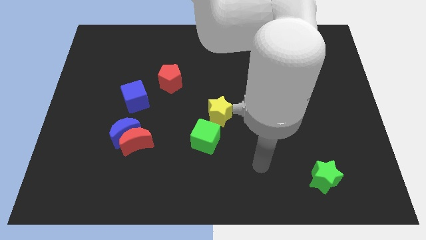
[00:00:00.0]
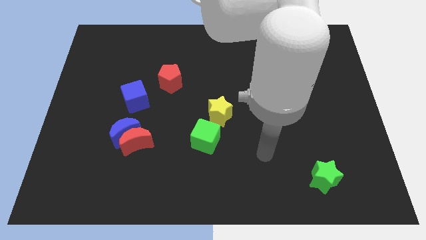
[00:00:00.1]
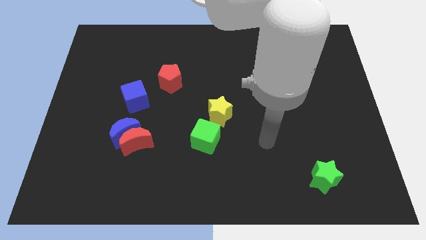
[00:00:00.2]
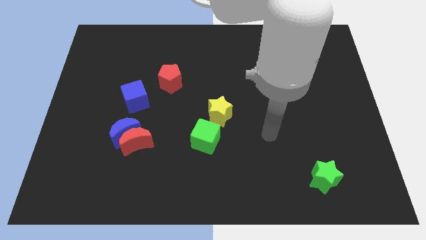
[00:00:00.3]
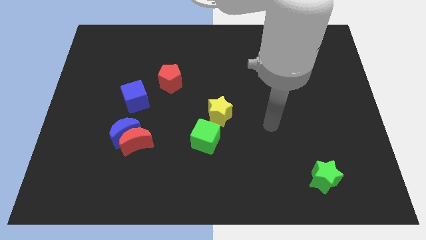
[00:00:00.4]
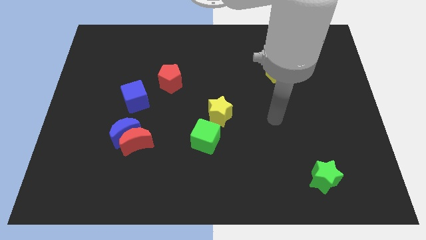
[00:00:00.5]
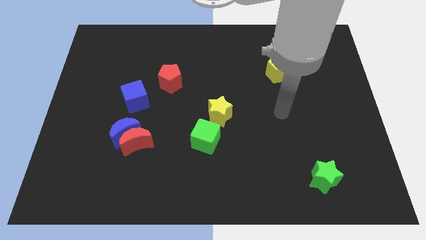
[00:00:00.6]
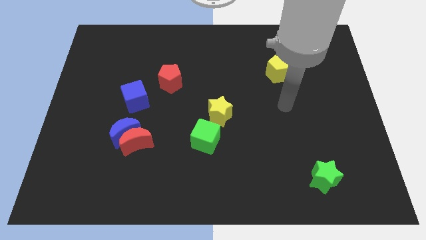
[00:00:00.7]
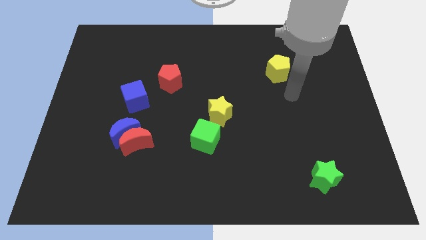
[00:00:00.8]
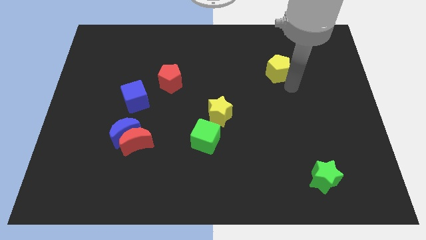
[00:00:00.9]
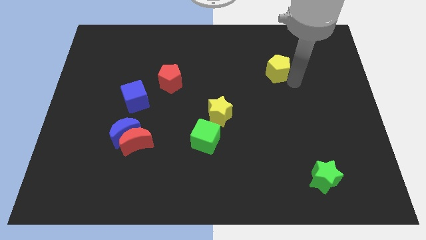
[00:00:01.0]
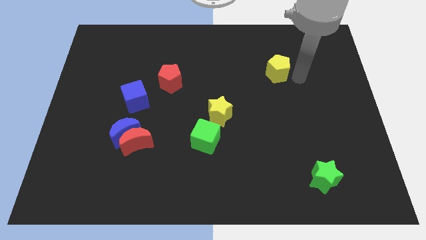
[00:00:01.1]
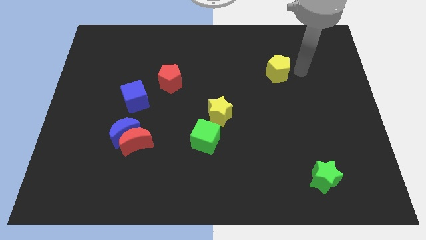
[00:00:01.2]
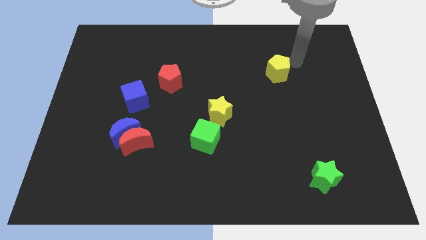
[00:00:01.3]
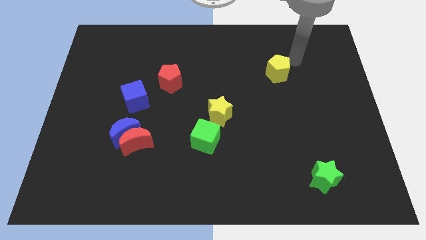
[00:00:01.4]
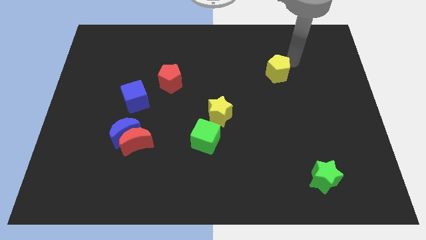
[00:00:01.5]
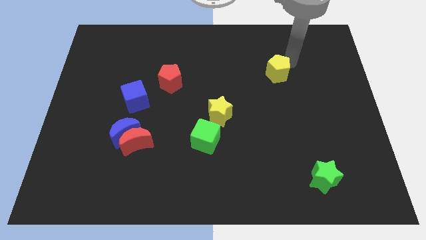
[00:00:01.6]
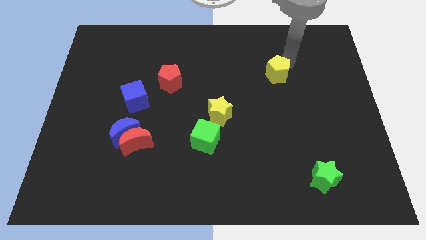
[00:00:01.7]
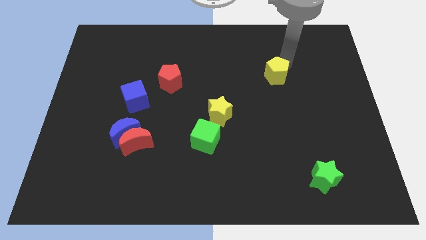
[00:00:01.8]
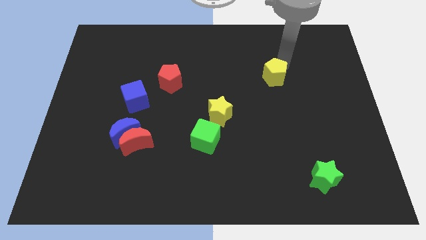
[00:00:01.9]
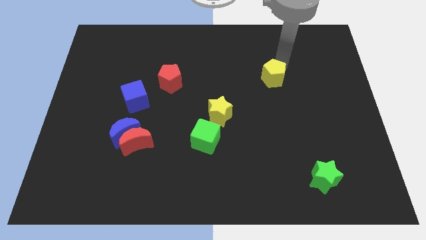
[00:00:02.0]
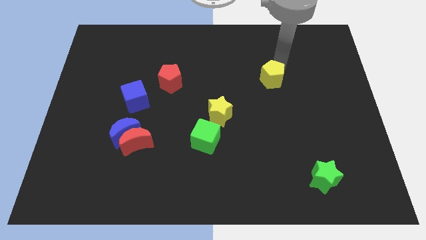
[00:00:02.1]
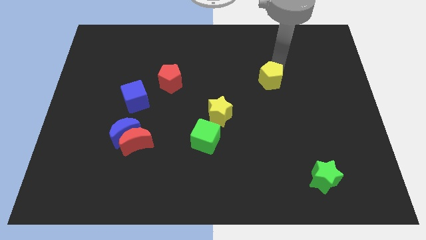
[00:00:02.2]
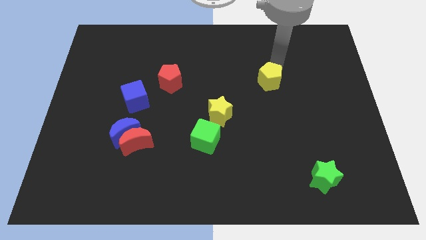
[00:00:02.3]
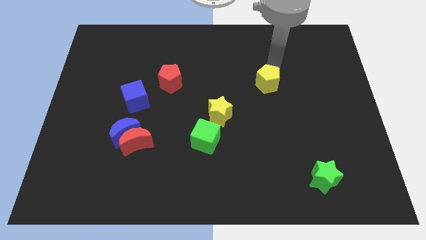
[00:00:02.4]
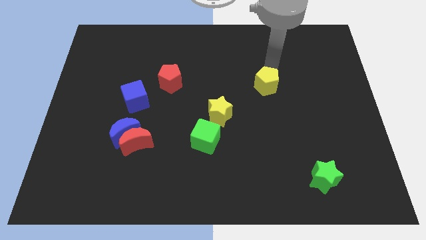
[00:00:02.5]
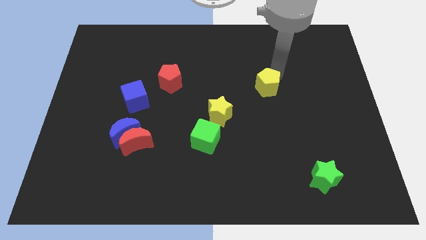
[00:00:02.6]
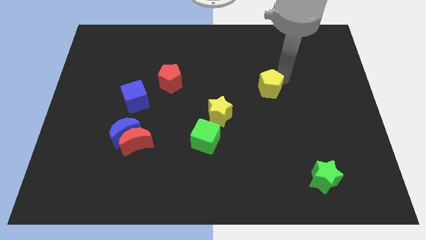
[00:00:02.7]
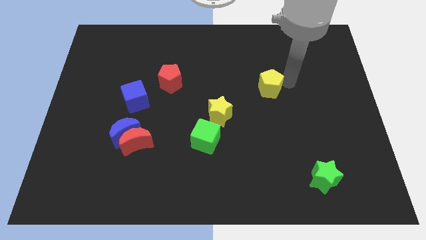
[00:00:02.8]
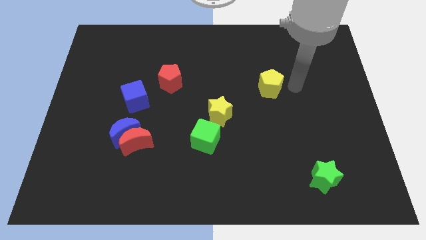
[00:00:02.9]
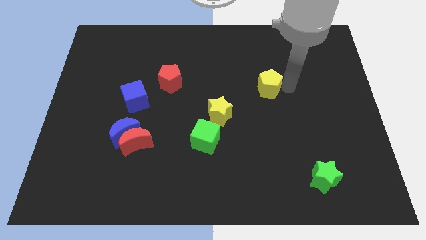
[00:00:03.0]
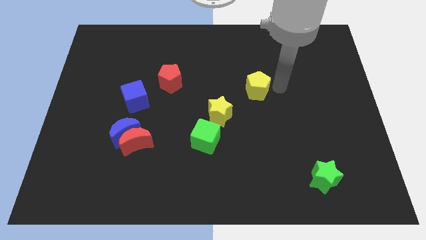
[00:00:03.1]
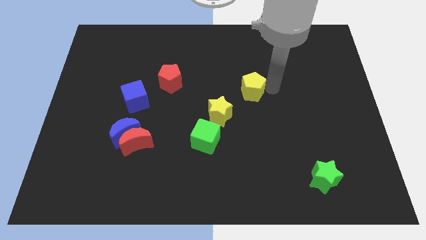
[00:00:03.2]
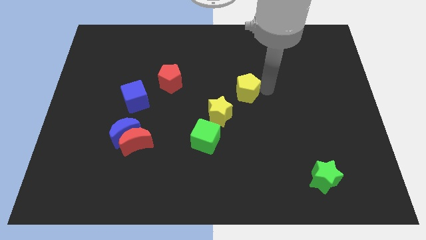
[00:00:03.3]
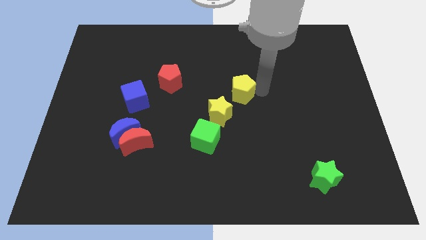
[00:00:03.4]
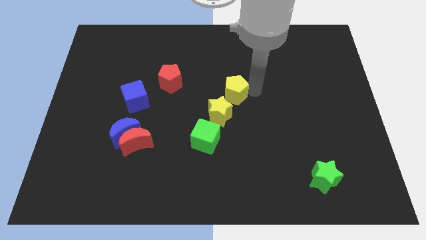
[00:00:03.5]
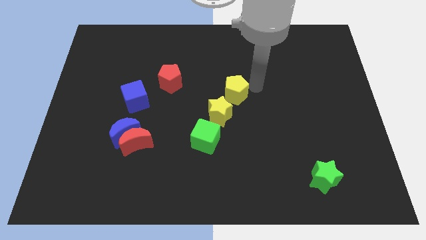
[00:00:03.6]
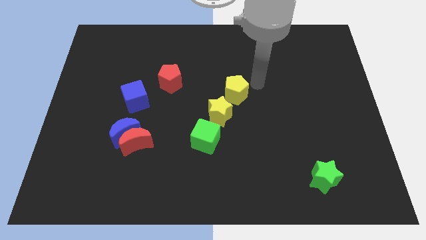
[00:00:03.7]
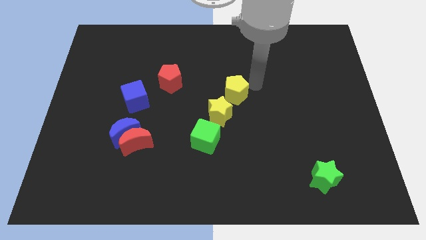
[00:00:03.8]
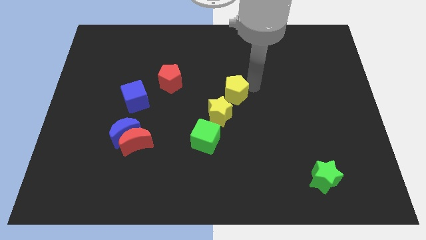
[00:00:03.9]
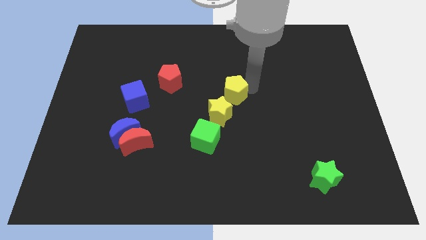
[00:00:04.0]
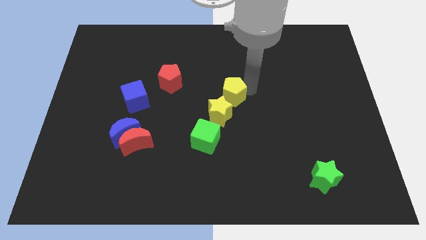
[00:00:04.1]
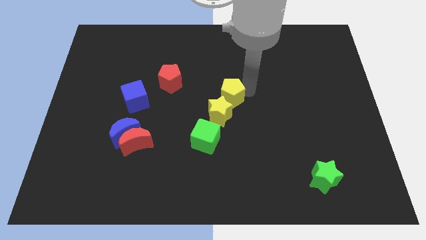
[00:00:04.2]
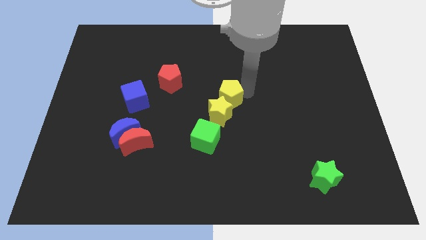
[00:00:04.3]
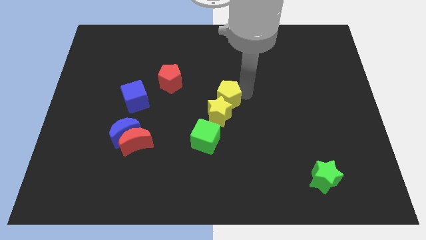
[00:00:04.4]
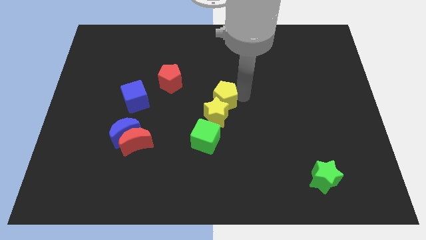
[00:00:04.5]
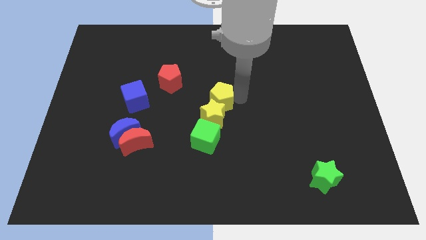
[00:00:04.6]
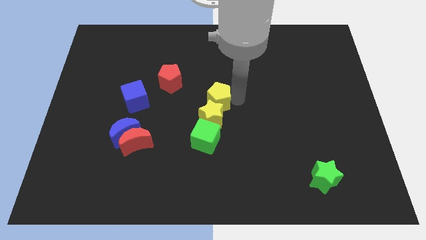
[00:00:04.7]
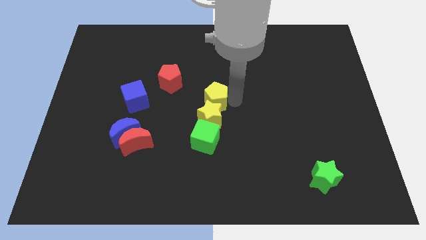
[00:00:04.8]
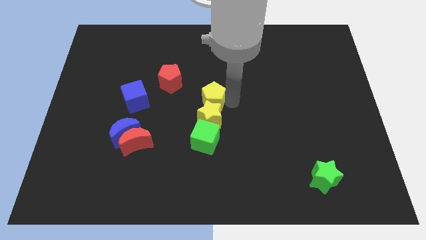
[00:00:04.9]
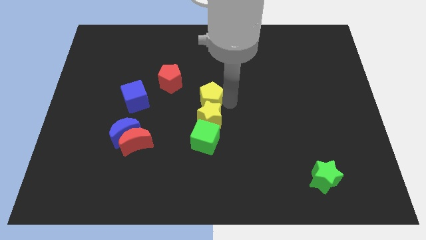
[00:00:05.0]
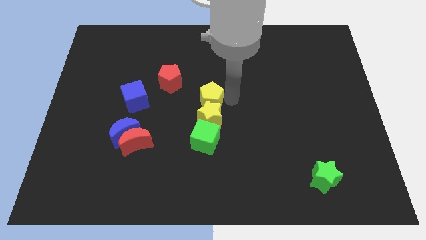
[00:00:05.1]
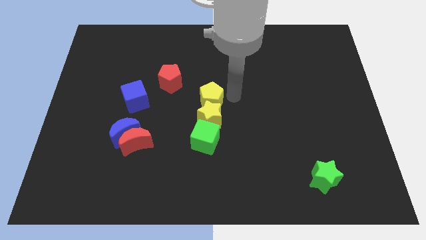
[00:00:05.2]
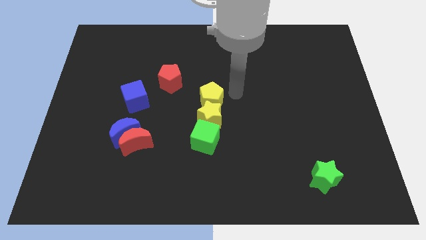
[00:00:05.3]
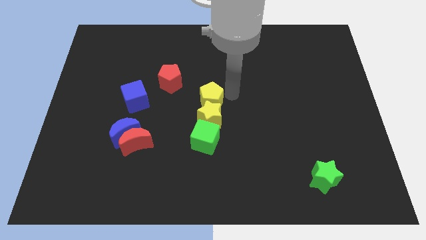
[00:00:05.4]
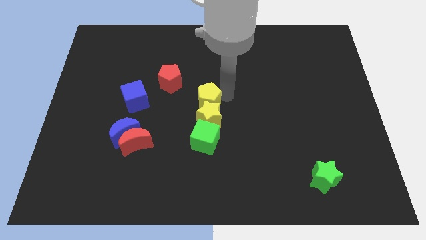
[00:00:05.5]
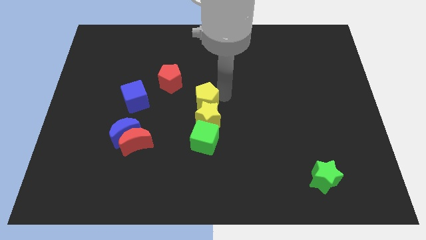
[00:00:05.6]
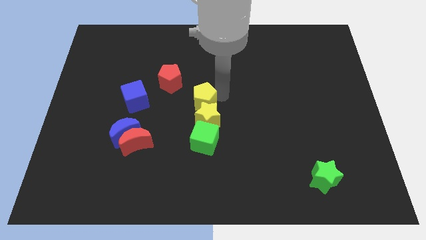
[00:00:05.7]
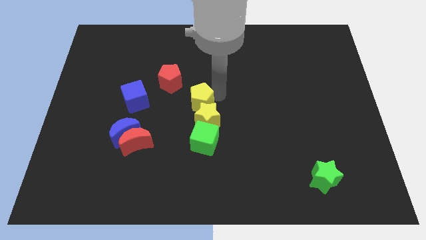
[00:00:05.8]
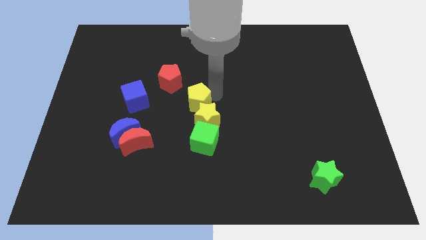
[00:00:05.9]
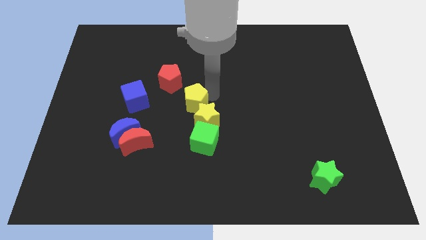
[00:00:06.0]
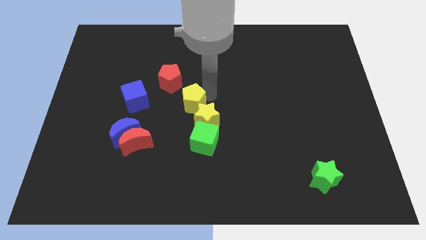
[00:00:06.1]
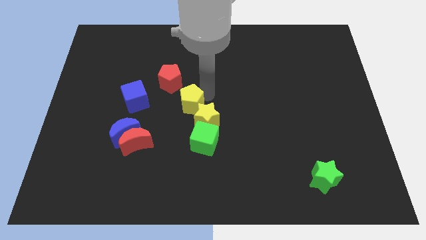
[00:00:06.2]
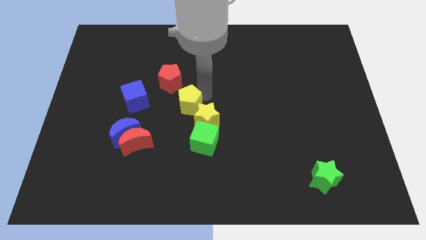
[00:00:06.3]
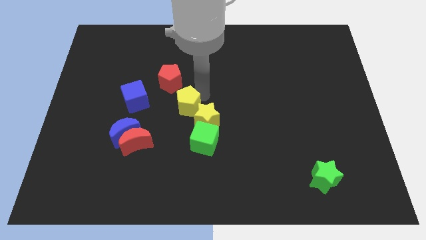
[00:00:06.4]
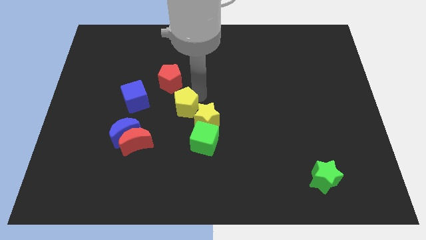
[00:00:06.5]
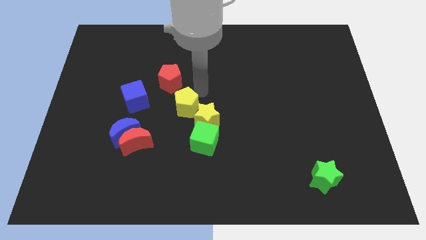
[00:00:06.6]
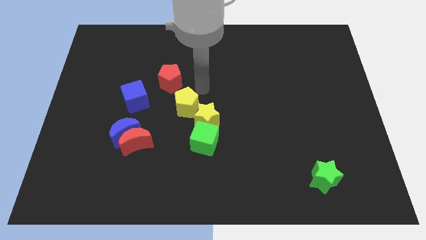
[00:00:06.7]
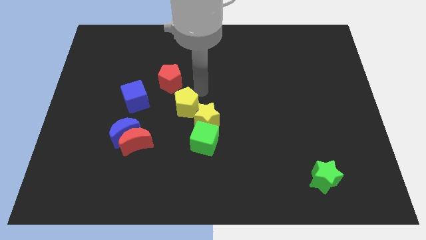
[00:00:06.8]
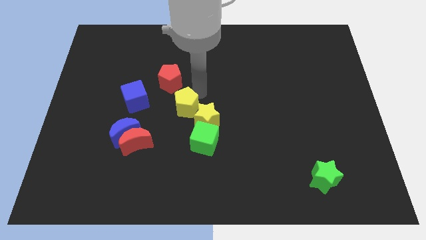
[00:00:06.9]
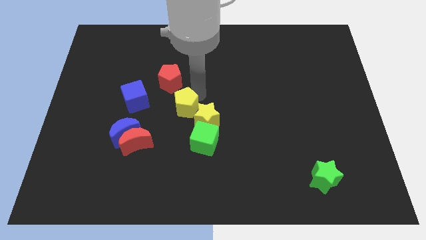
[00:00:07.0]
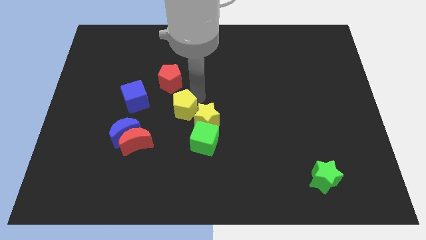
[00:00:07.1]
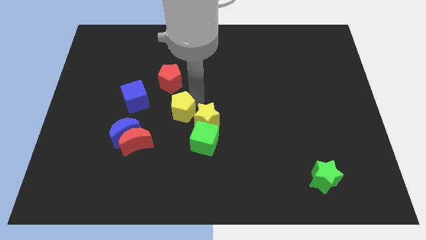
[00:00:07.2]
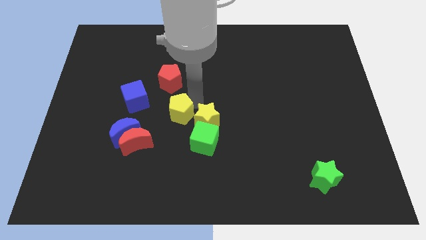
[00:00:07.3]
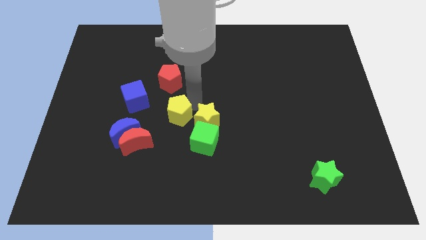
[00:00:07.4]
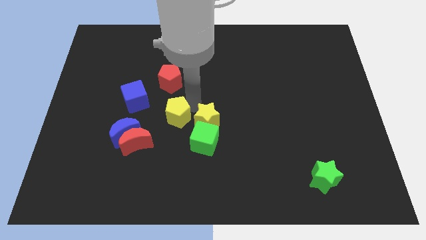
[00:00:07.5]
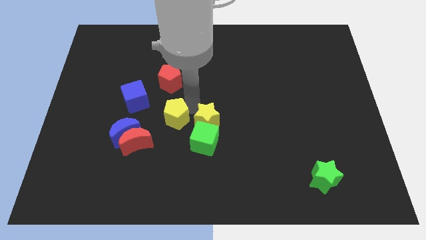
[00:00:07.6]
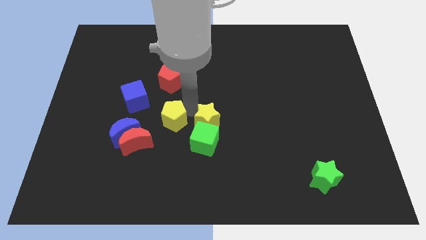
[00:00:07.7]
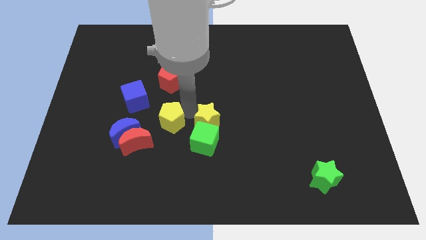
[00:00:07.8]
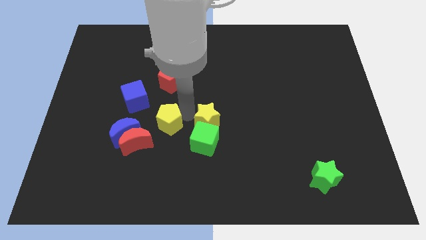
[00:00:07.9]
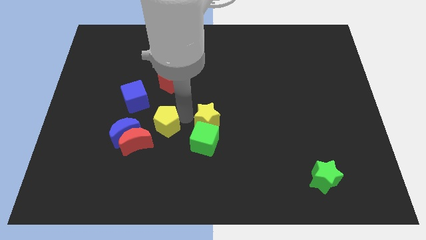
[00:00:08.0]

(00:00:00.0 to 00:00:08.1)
move the yellow pentagon to the left of the green cube
